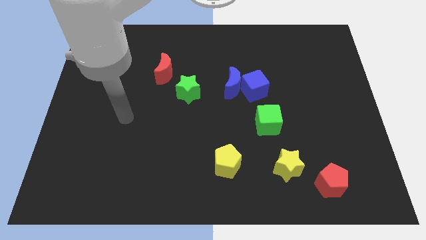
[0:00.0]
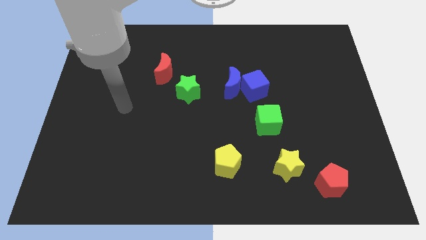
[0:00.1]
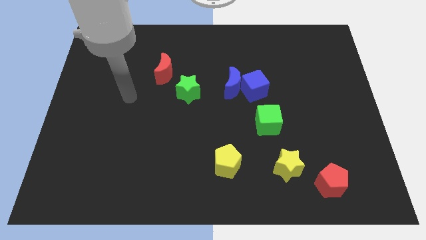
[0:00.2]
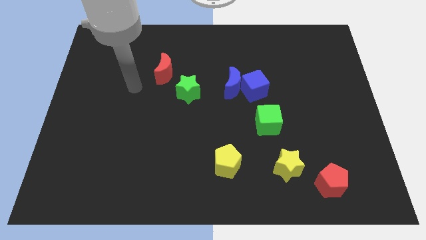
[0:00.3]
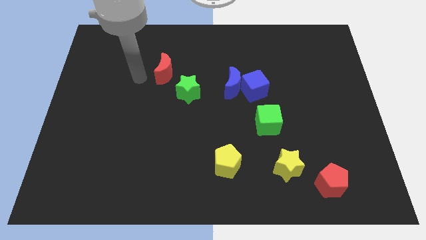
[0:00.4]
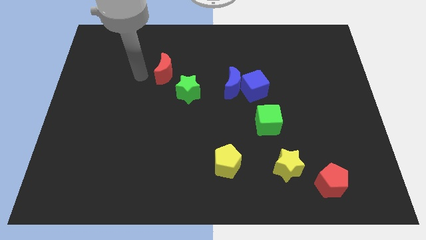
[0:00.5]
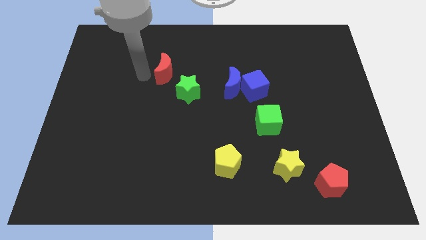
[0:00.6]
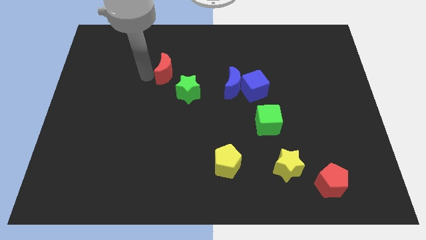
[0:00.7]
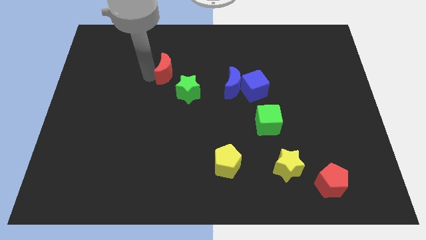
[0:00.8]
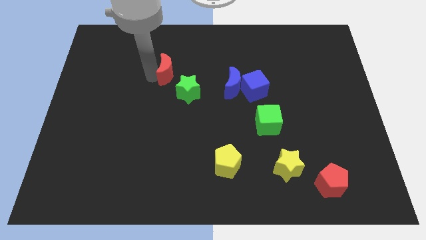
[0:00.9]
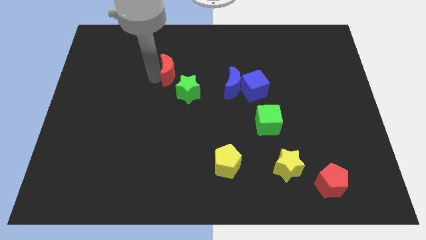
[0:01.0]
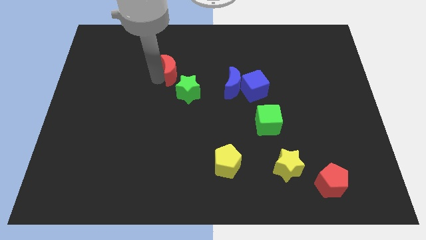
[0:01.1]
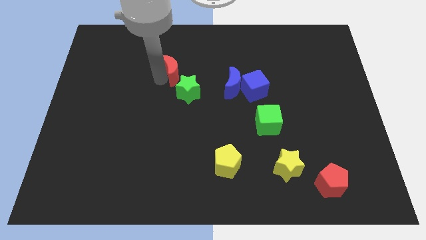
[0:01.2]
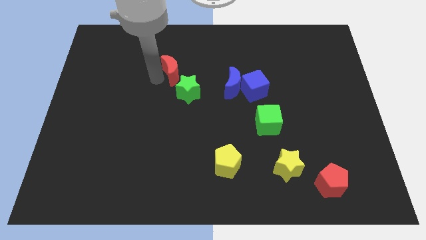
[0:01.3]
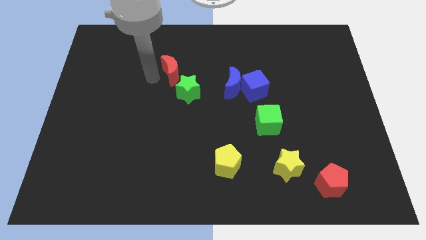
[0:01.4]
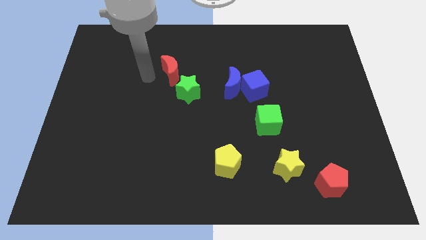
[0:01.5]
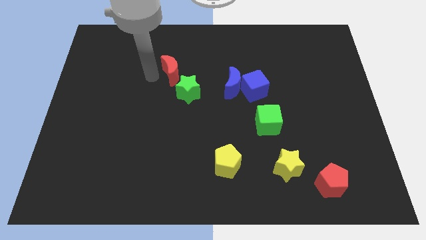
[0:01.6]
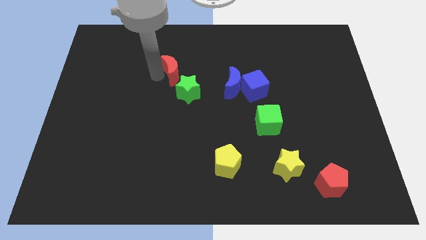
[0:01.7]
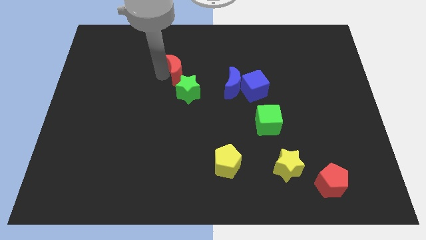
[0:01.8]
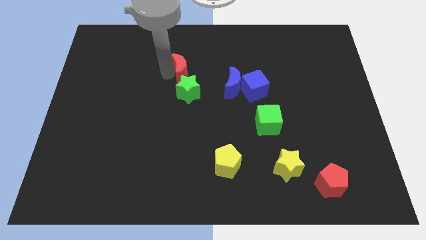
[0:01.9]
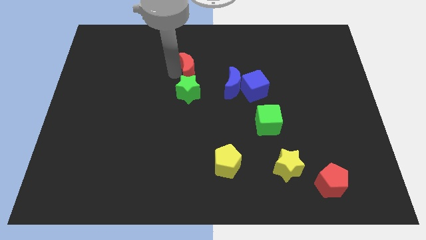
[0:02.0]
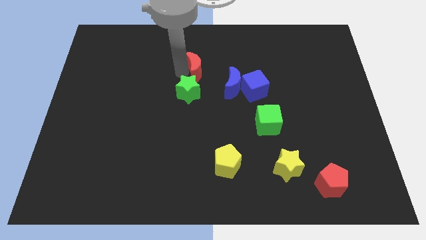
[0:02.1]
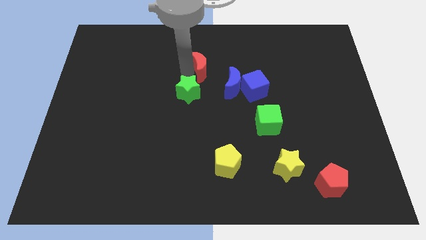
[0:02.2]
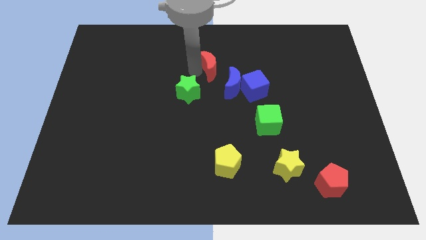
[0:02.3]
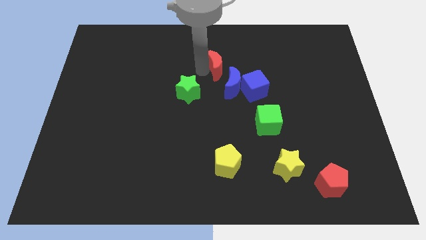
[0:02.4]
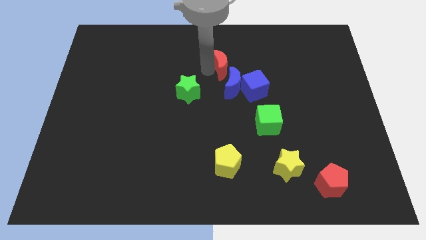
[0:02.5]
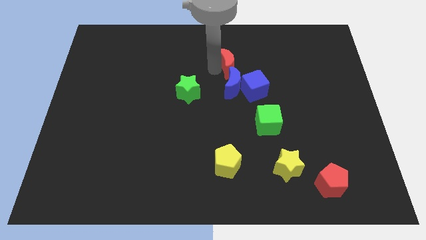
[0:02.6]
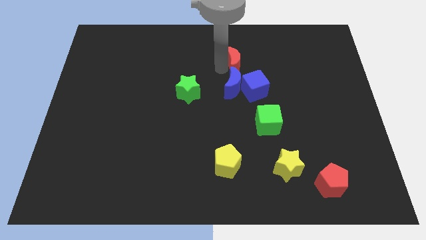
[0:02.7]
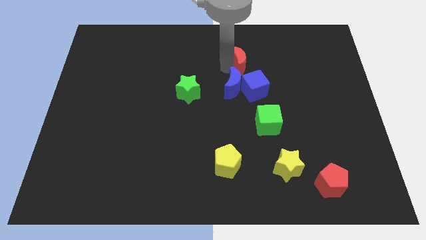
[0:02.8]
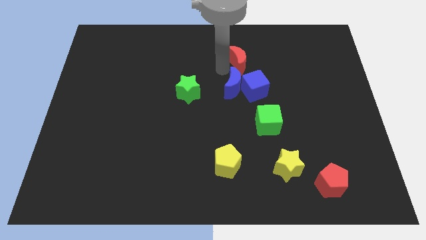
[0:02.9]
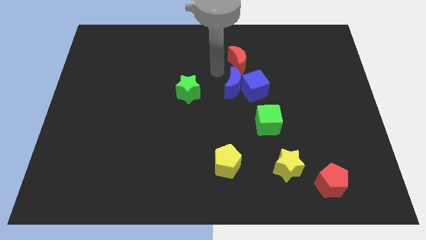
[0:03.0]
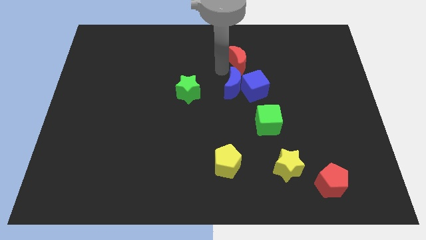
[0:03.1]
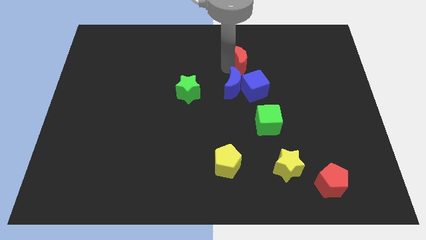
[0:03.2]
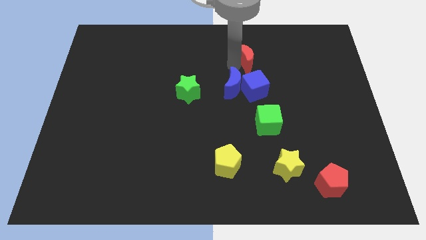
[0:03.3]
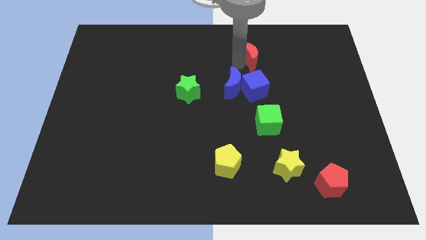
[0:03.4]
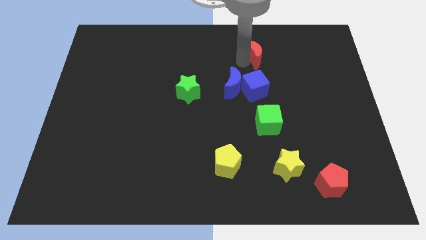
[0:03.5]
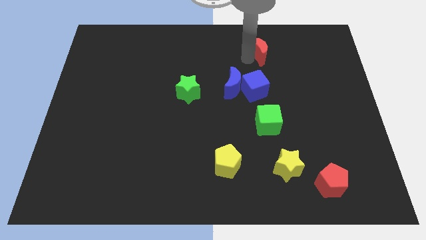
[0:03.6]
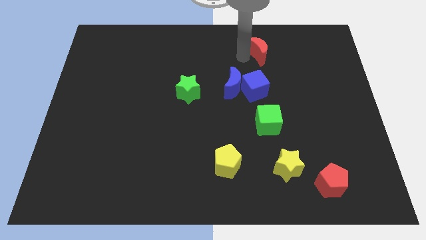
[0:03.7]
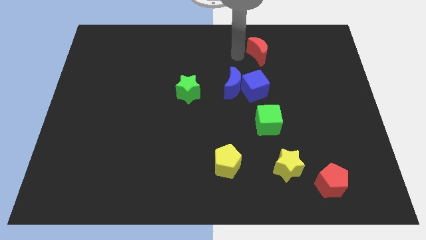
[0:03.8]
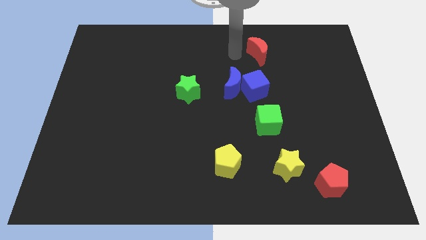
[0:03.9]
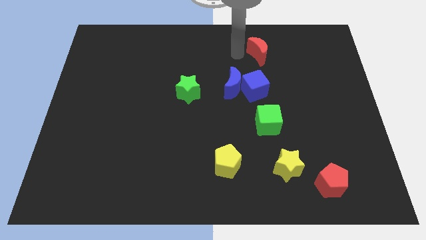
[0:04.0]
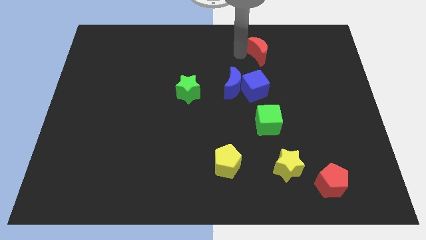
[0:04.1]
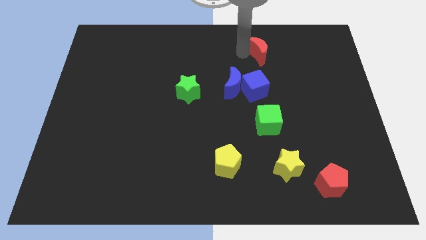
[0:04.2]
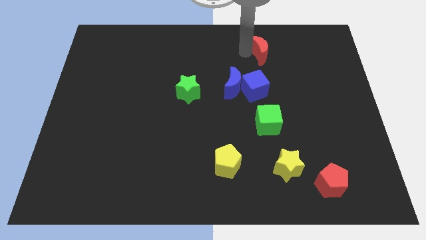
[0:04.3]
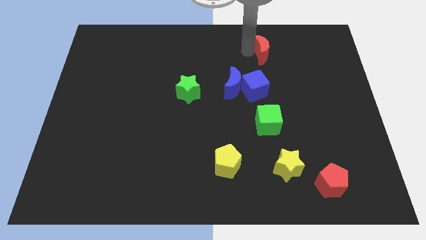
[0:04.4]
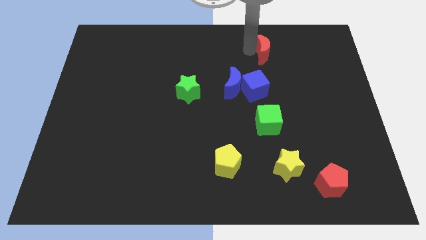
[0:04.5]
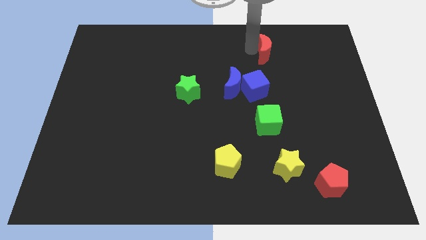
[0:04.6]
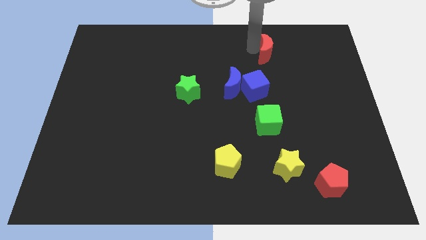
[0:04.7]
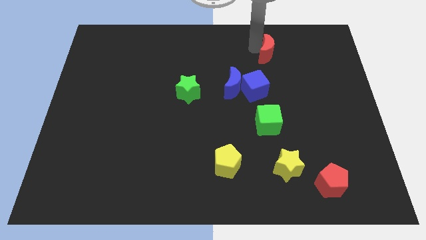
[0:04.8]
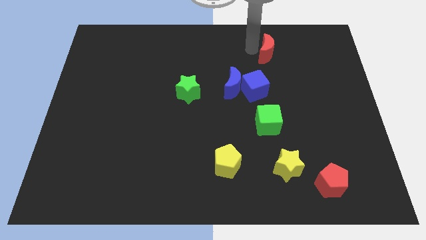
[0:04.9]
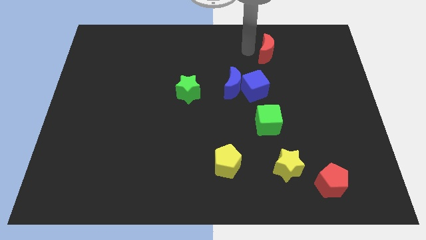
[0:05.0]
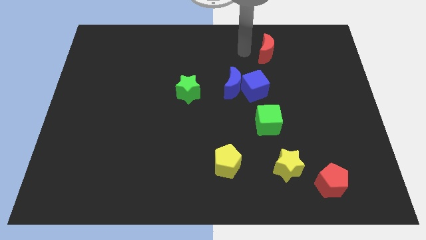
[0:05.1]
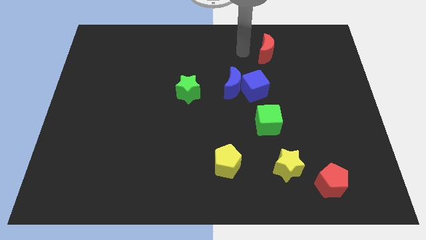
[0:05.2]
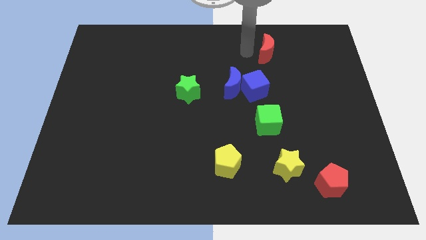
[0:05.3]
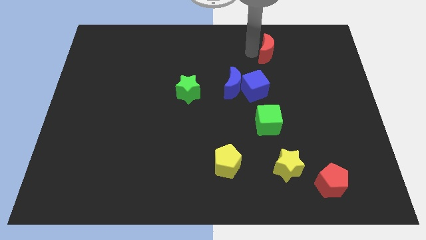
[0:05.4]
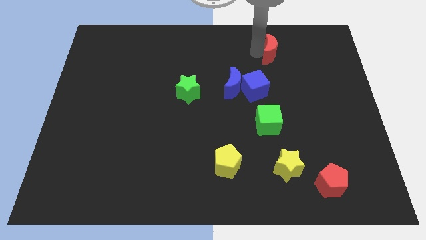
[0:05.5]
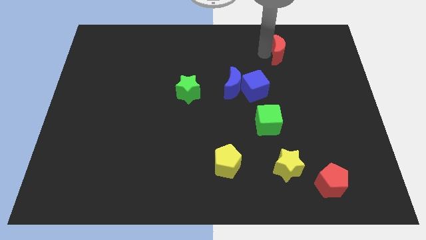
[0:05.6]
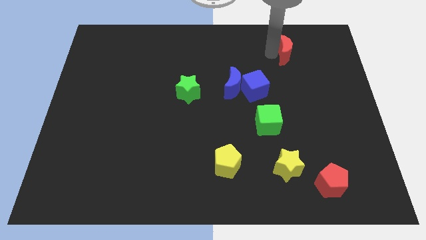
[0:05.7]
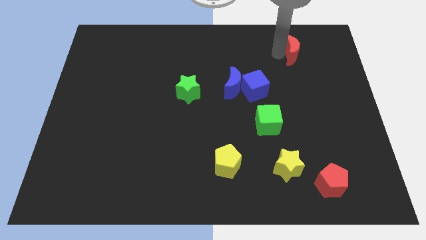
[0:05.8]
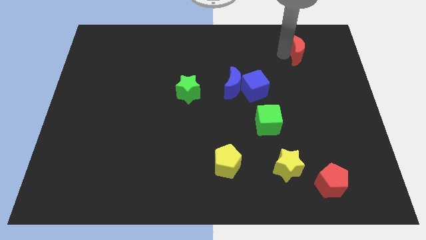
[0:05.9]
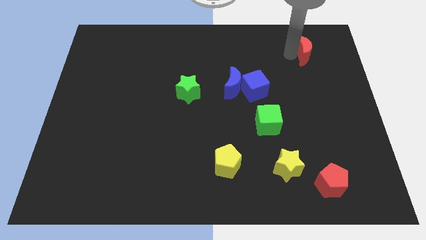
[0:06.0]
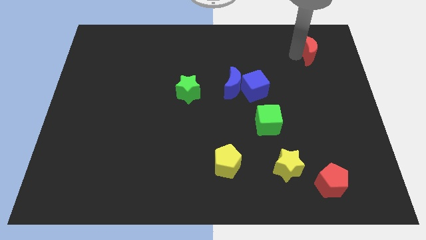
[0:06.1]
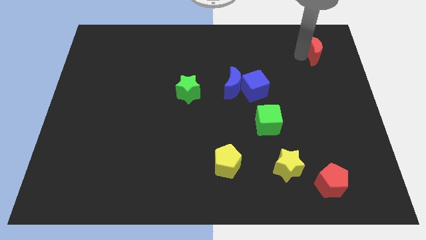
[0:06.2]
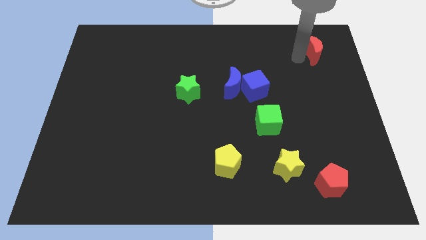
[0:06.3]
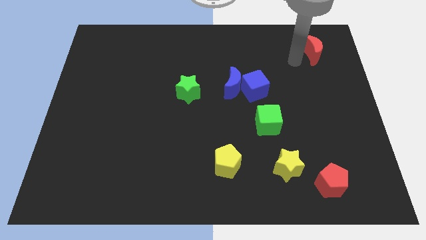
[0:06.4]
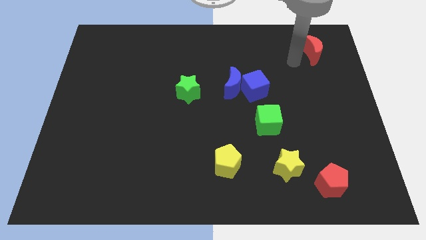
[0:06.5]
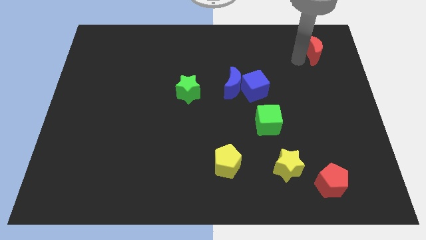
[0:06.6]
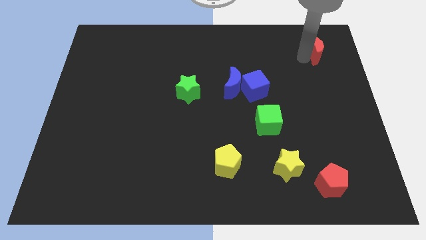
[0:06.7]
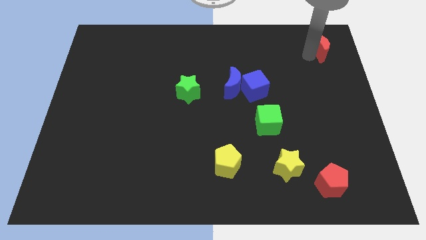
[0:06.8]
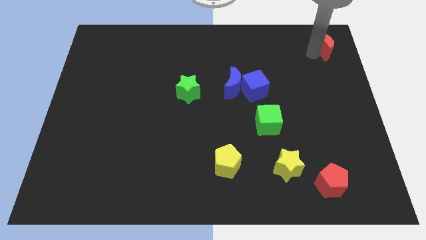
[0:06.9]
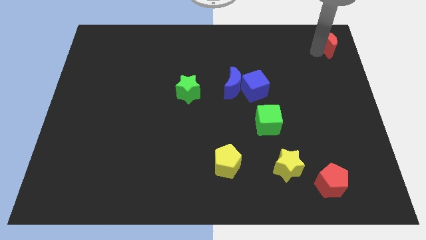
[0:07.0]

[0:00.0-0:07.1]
move the red moon to the upper right corner
